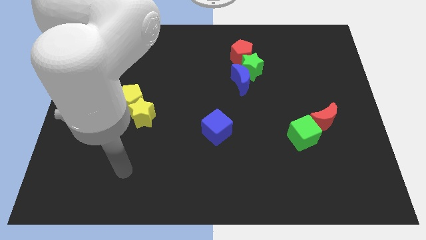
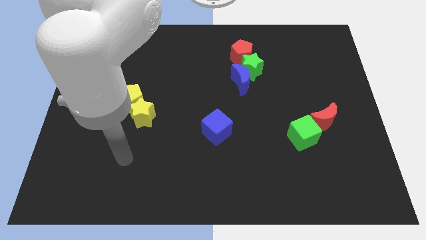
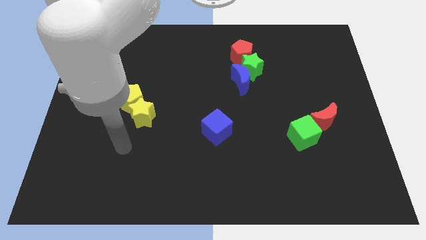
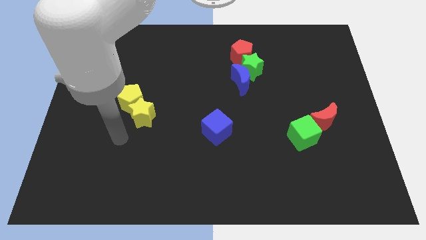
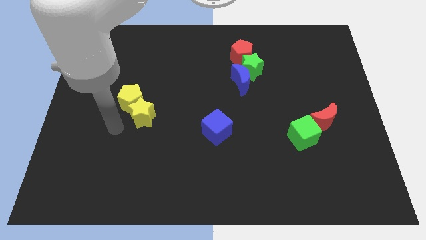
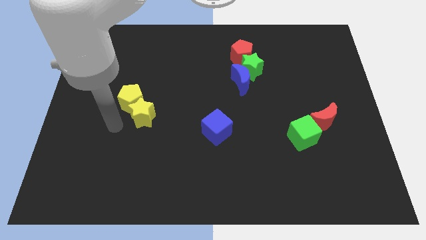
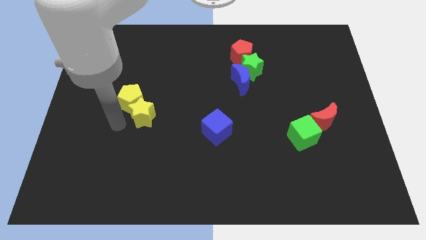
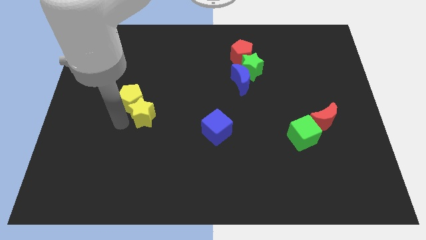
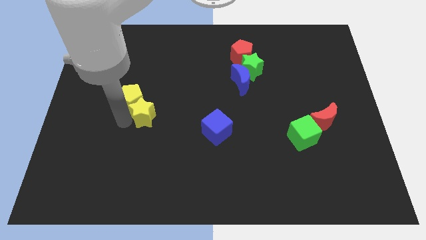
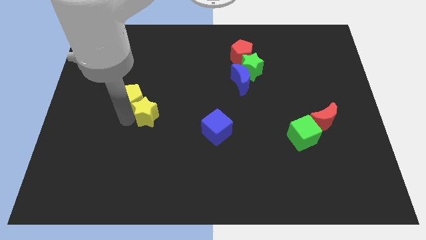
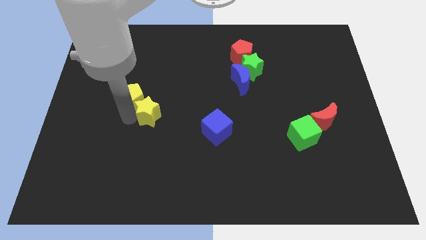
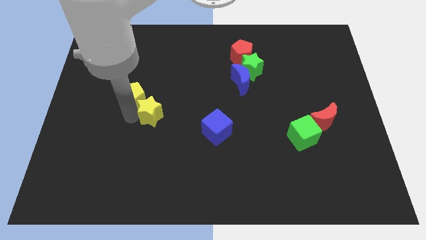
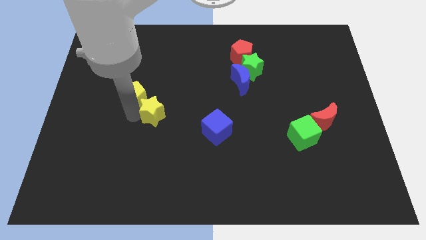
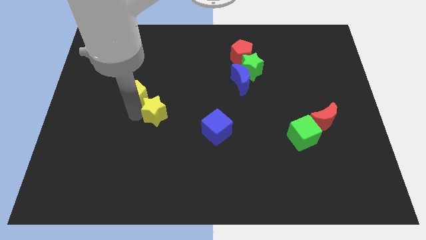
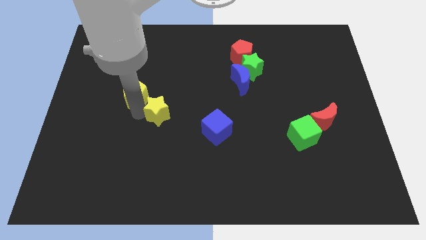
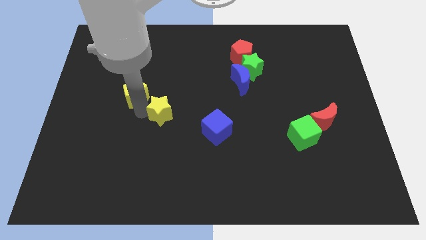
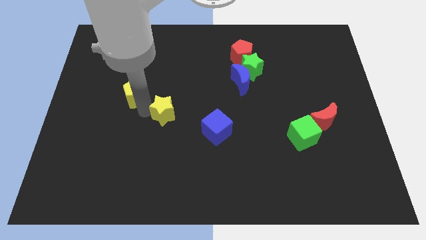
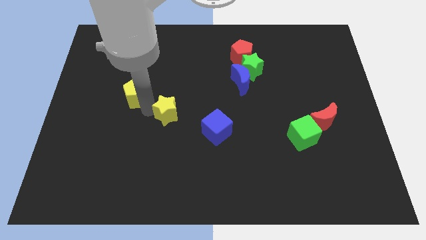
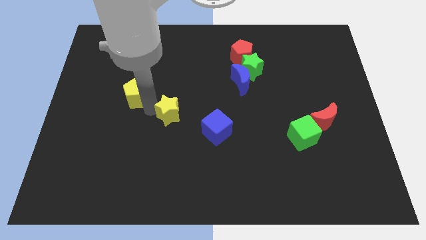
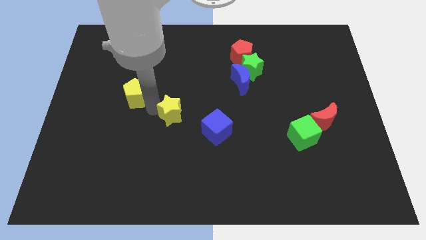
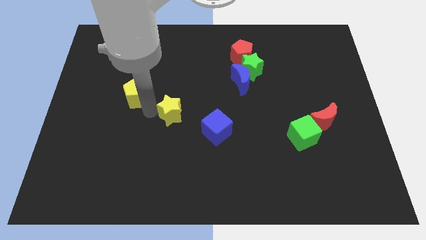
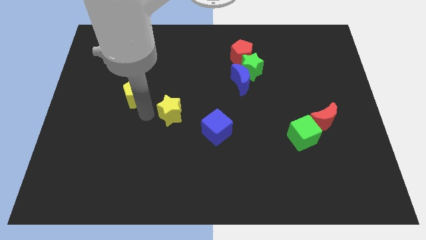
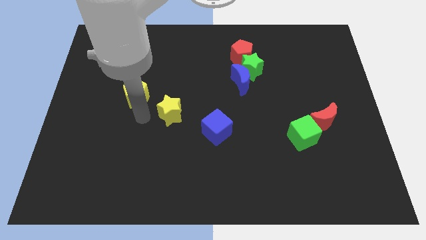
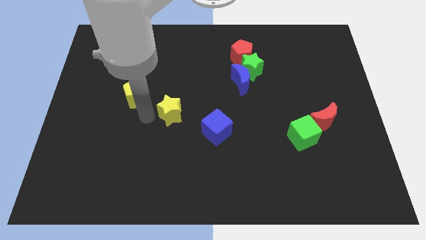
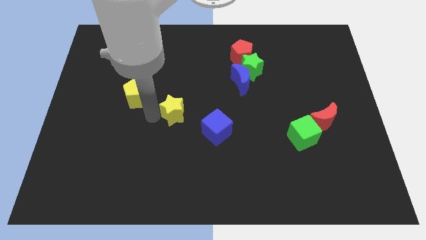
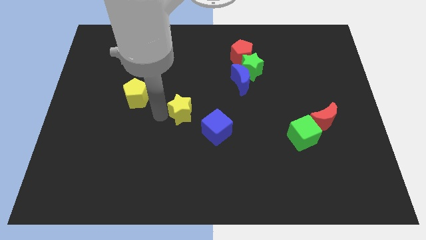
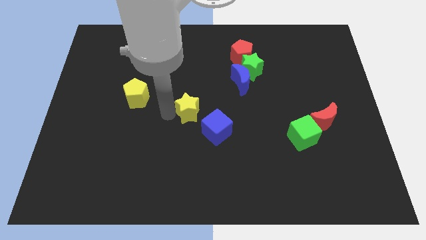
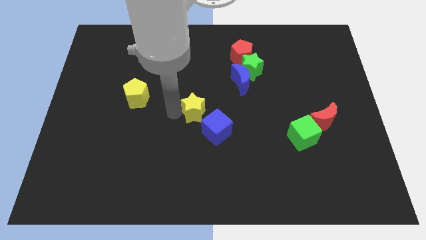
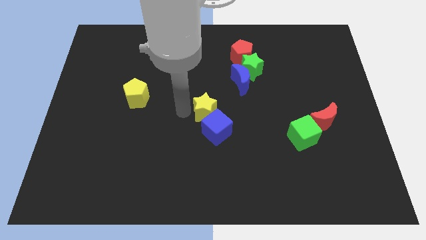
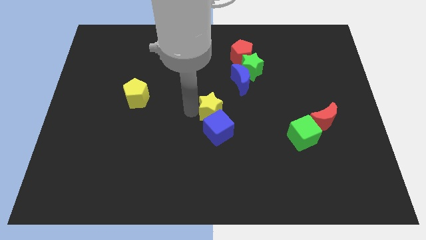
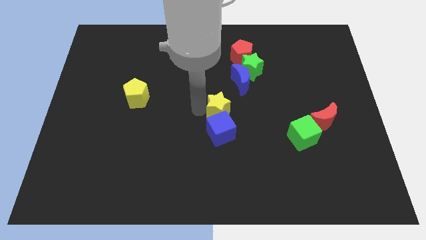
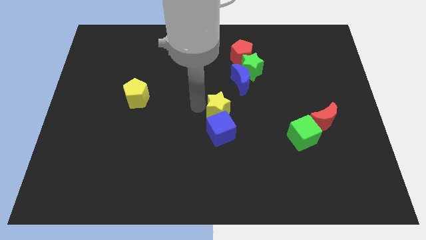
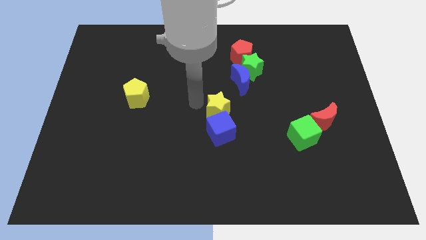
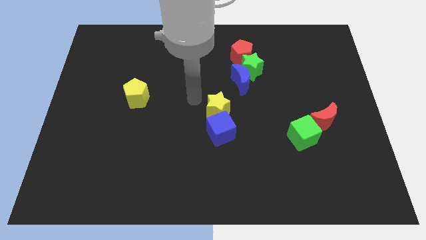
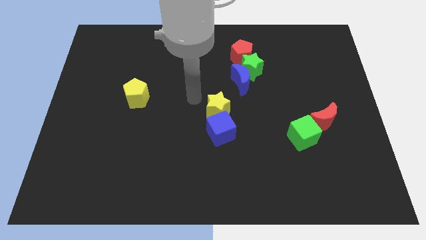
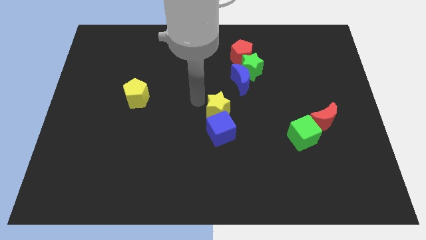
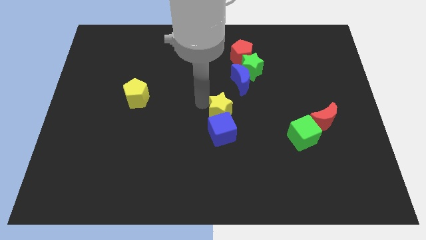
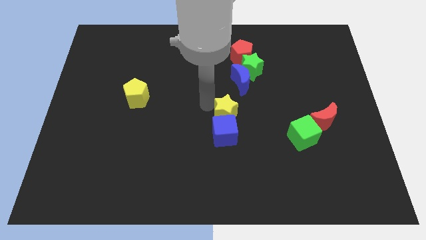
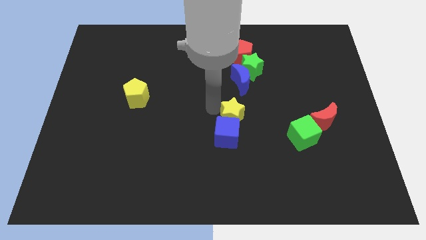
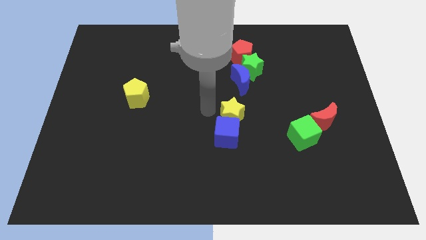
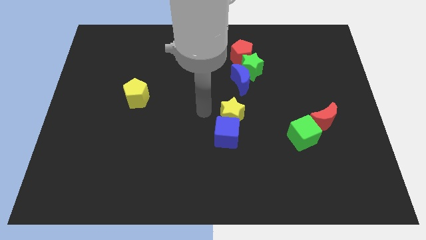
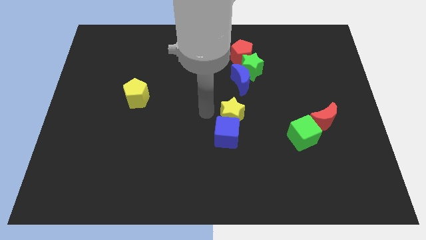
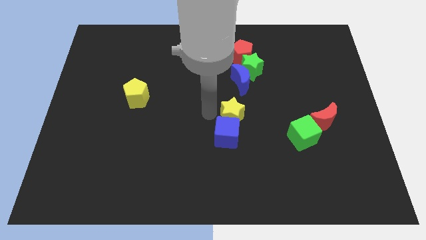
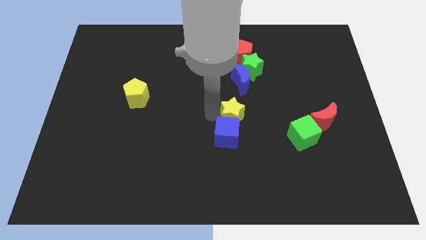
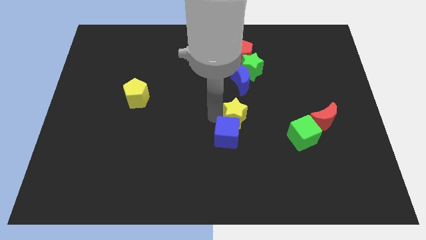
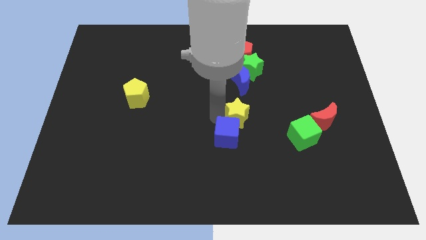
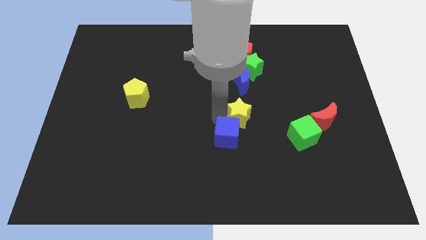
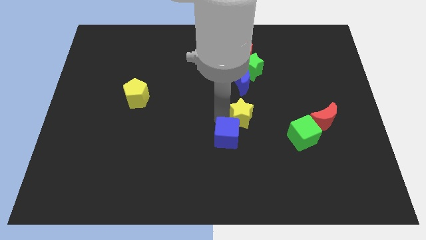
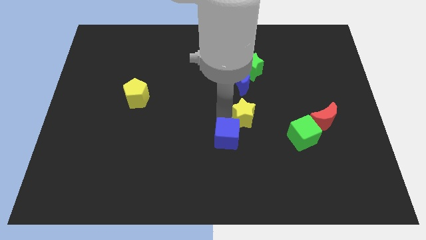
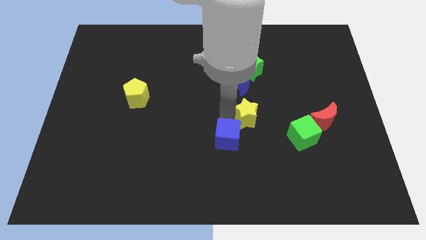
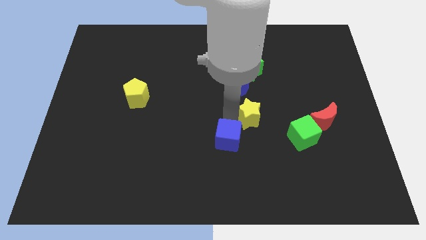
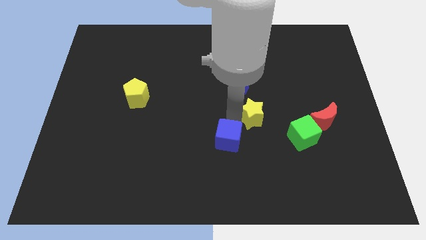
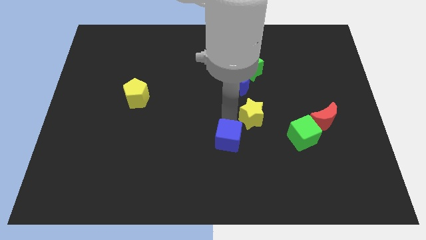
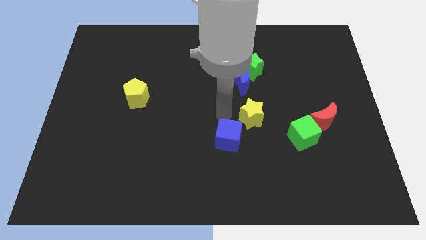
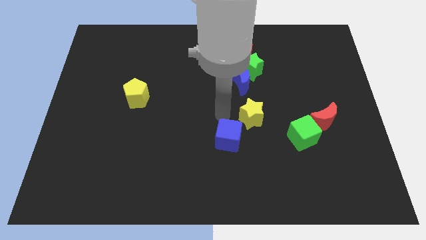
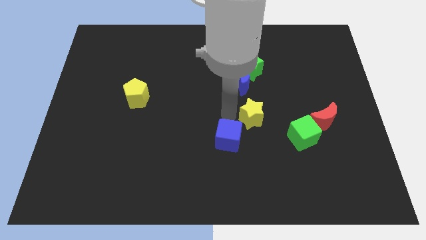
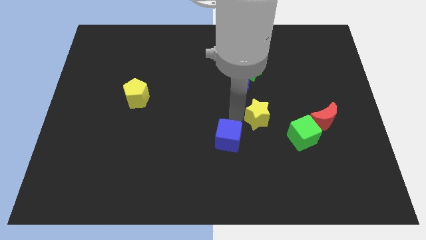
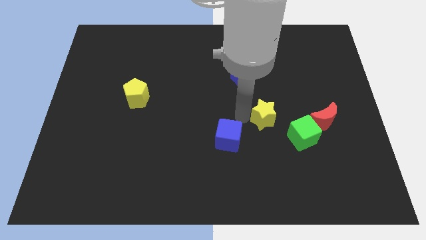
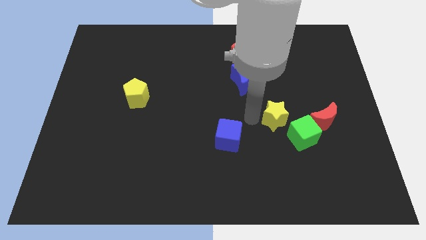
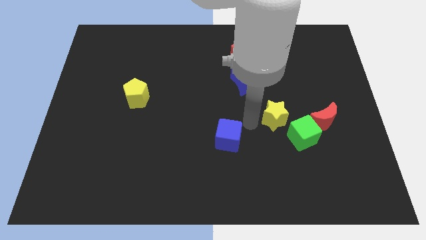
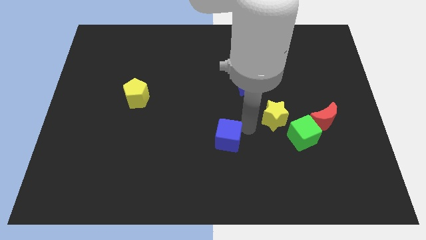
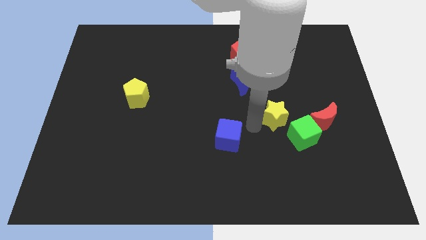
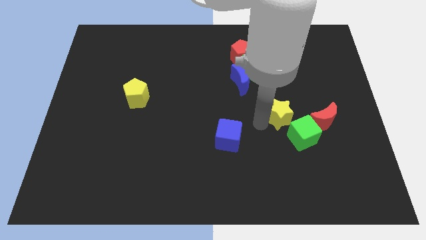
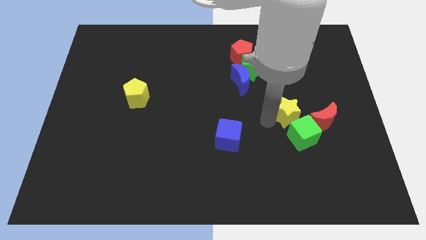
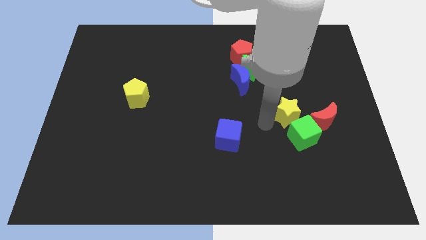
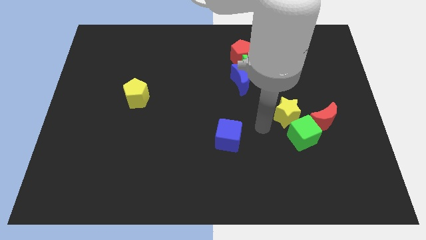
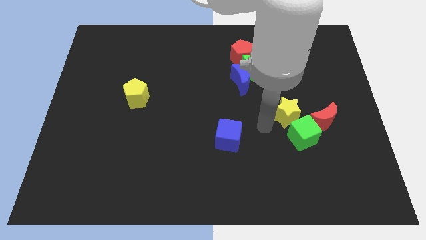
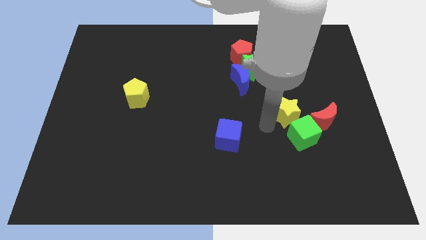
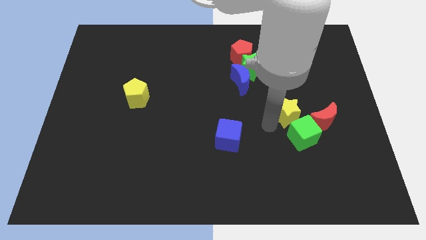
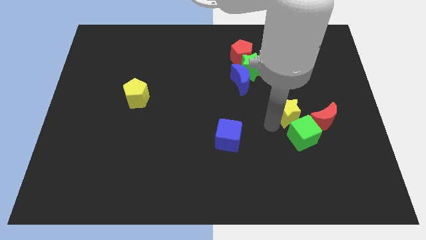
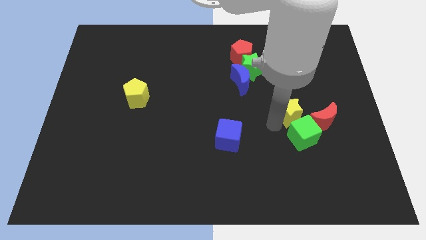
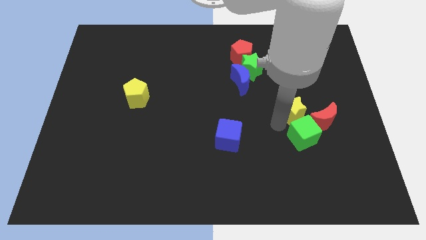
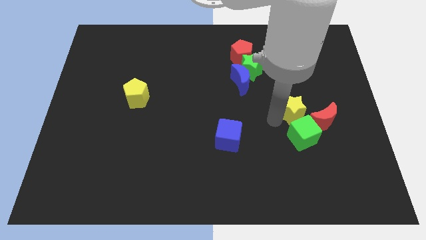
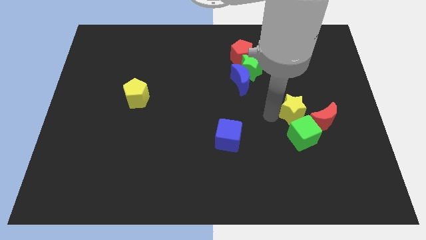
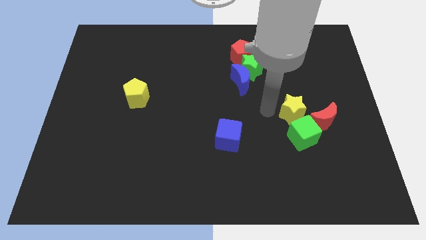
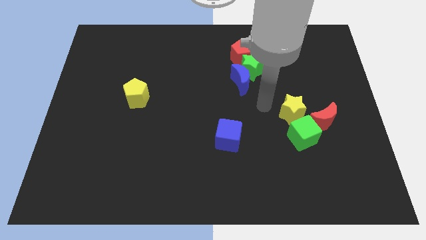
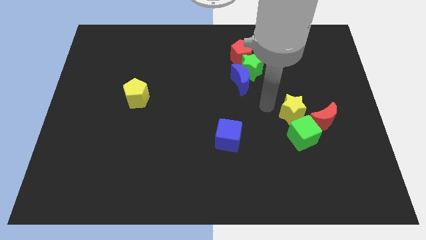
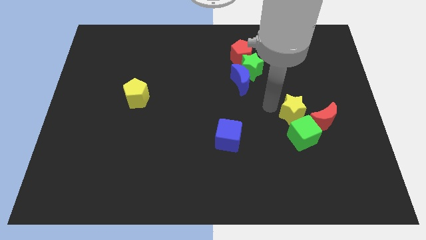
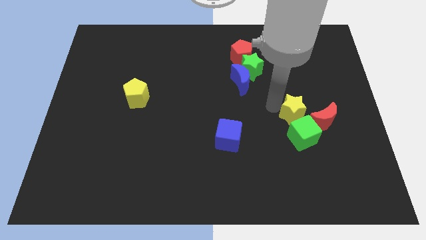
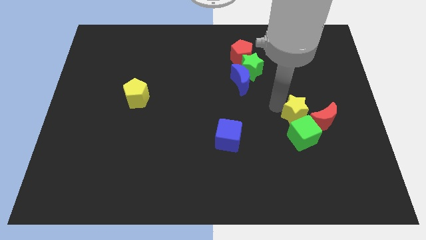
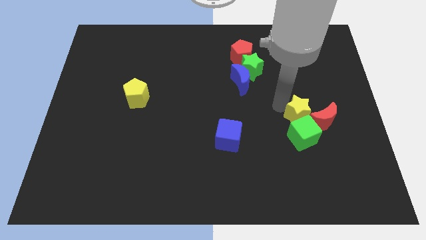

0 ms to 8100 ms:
put the yellow star close to the red moon
